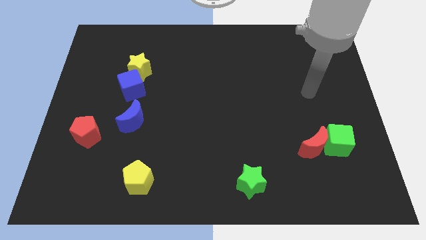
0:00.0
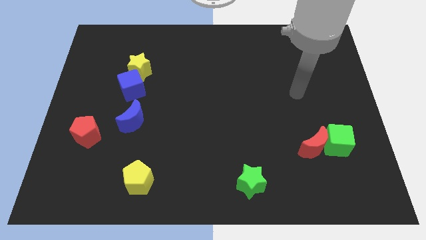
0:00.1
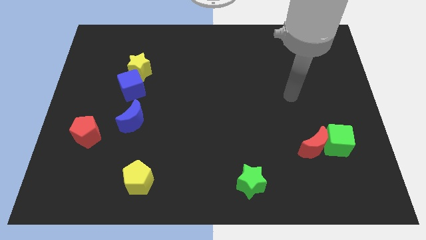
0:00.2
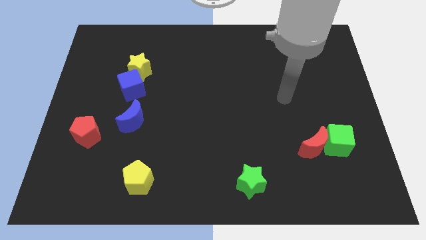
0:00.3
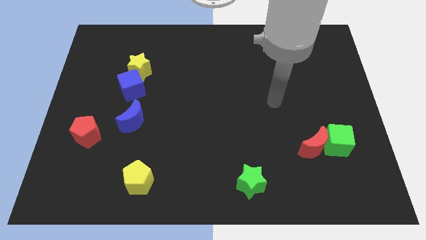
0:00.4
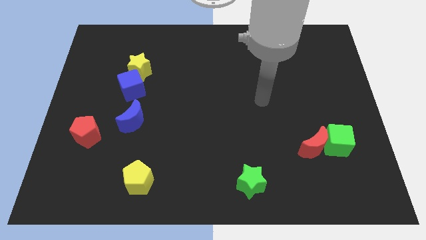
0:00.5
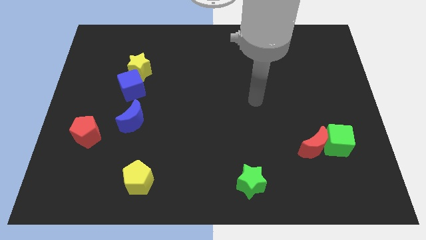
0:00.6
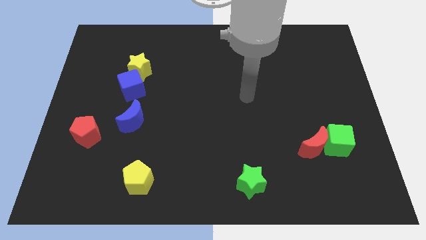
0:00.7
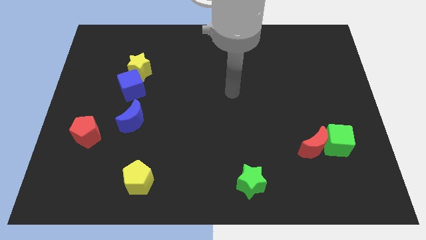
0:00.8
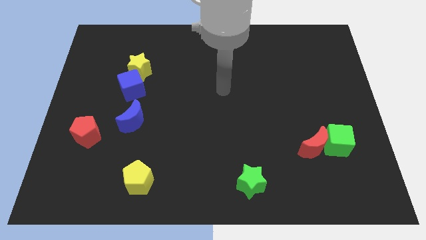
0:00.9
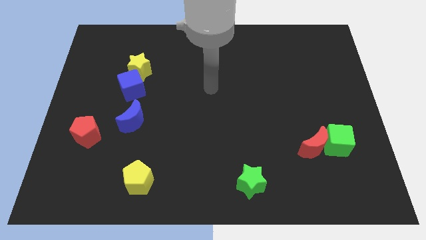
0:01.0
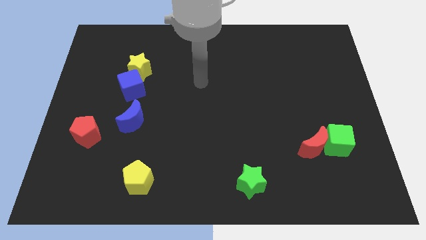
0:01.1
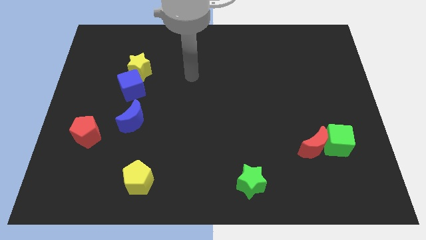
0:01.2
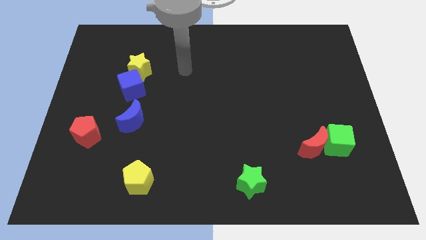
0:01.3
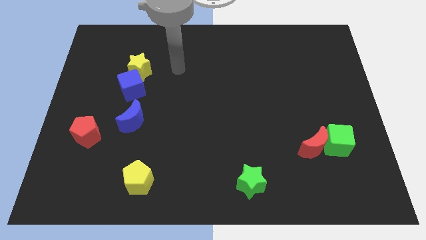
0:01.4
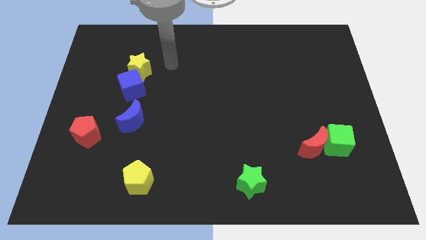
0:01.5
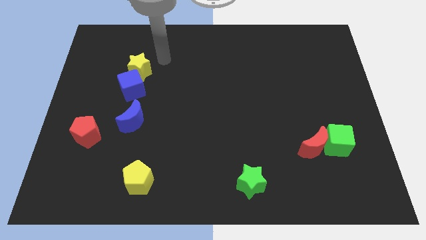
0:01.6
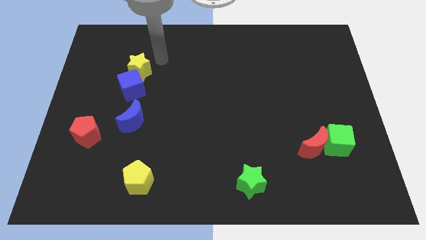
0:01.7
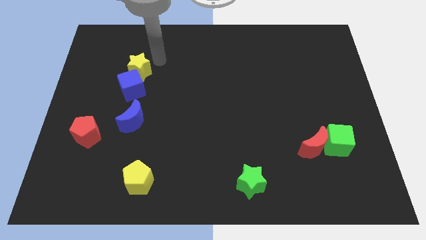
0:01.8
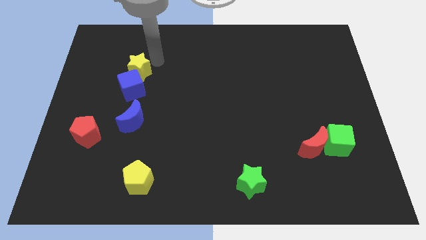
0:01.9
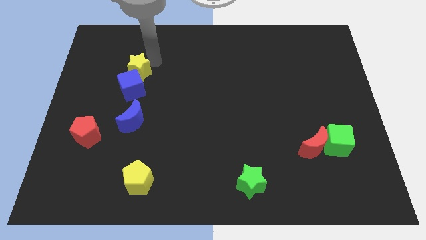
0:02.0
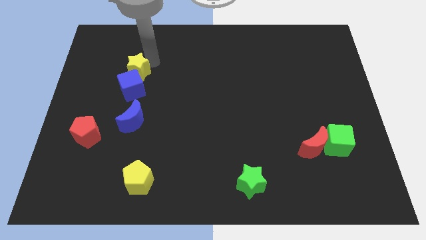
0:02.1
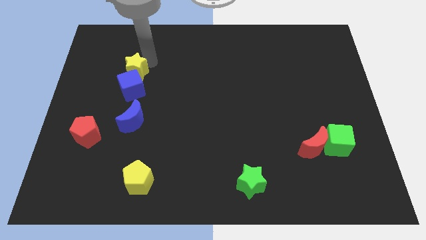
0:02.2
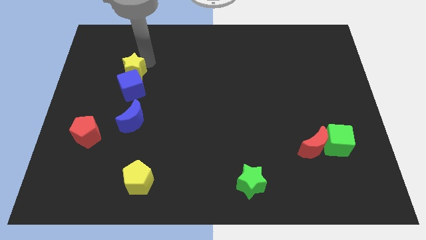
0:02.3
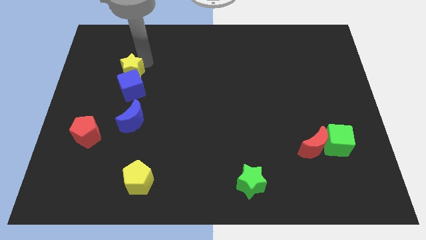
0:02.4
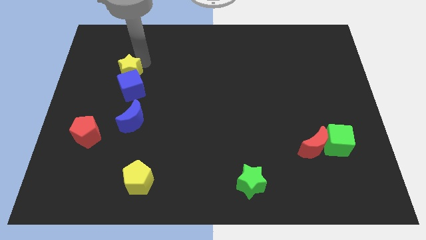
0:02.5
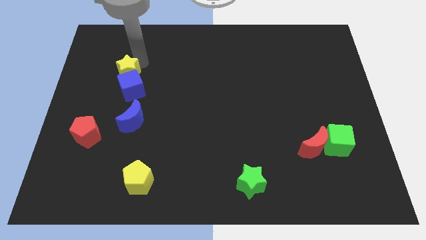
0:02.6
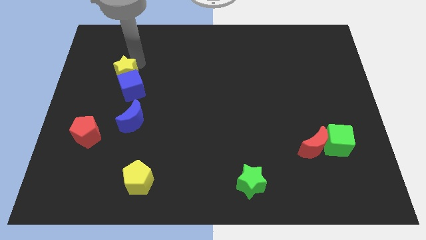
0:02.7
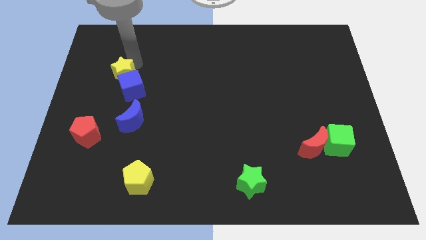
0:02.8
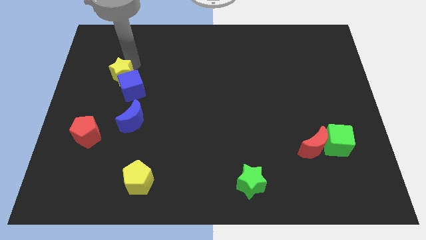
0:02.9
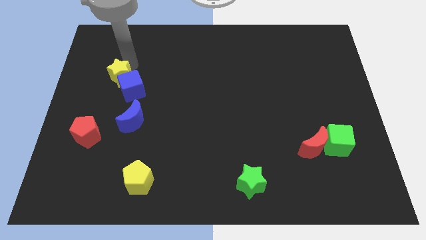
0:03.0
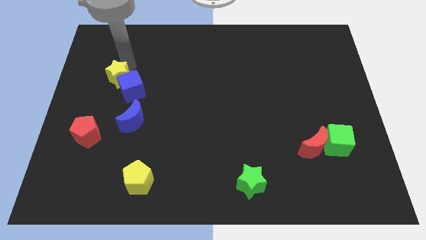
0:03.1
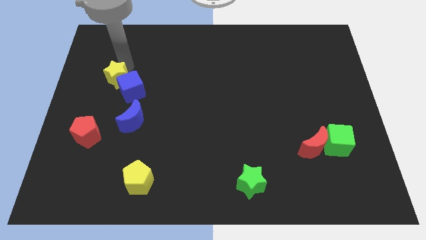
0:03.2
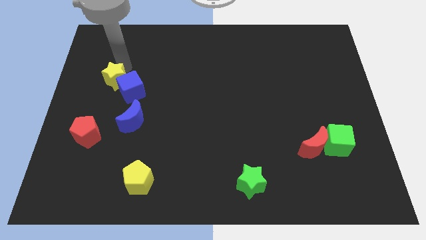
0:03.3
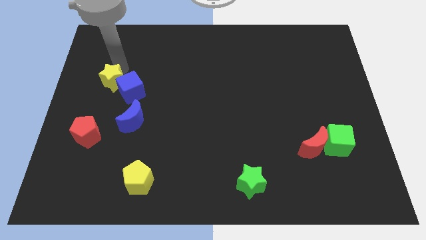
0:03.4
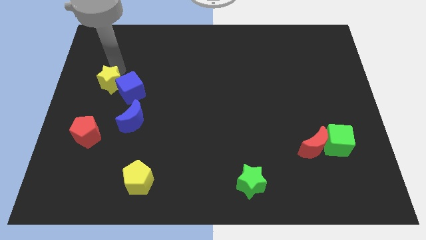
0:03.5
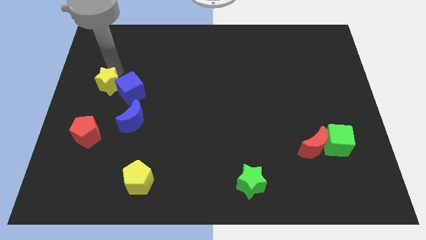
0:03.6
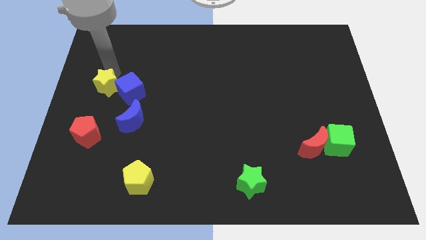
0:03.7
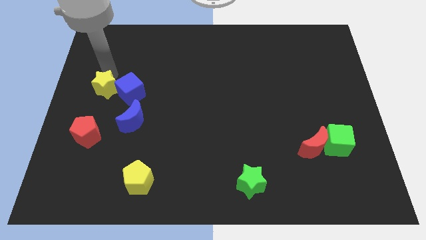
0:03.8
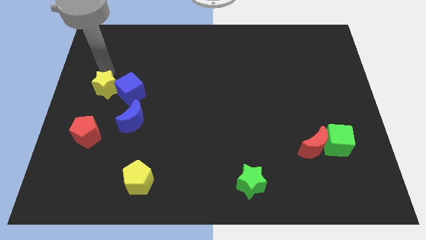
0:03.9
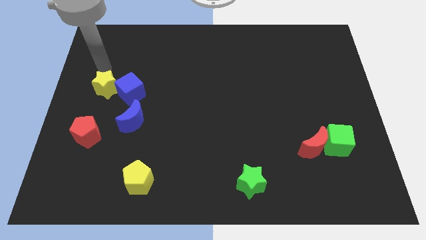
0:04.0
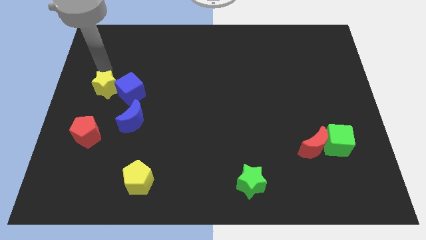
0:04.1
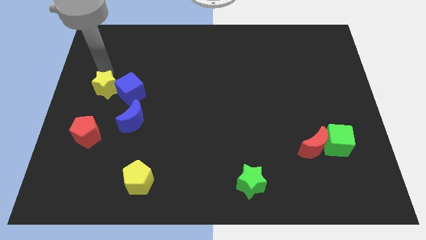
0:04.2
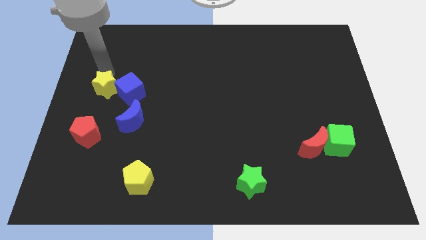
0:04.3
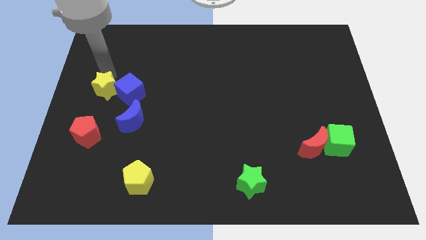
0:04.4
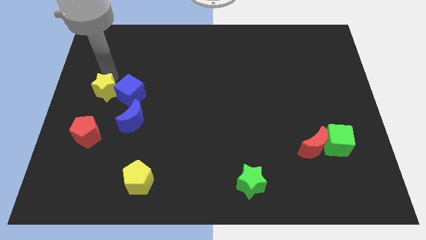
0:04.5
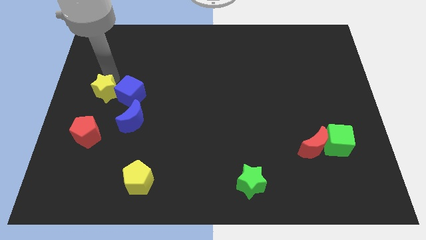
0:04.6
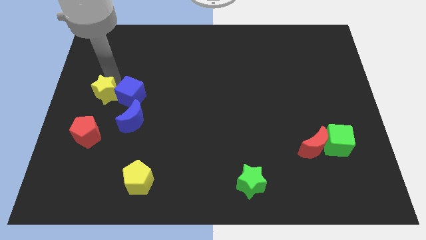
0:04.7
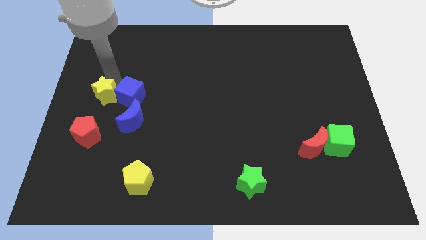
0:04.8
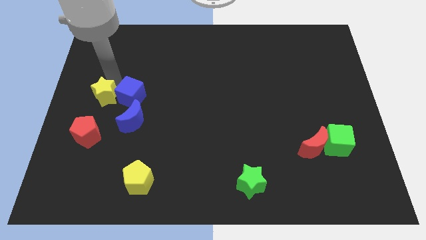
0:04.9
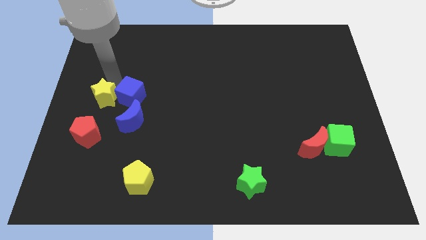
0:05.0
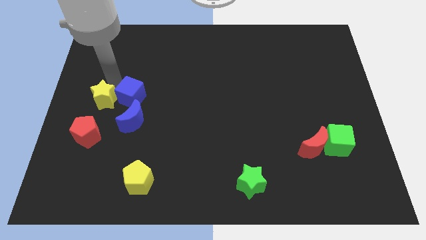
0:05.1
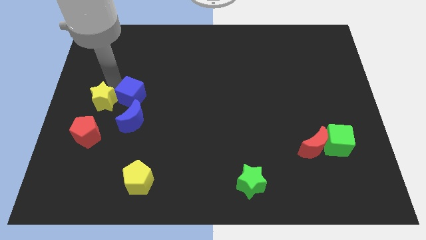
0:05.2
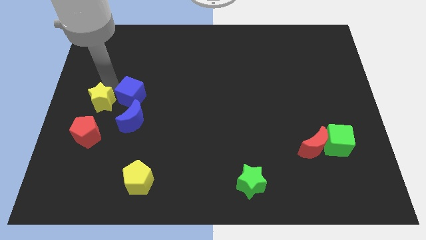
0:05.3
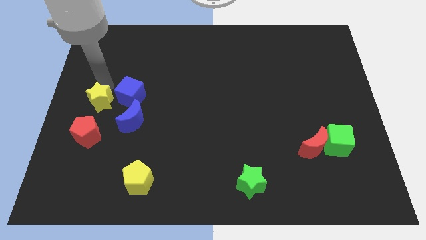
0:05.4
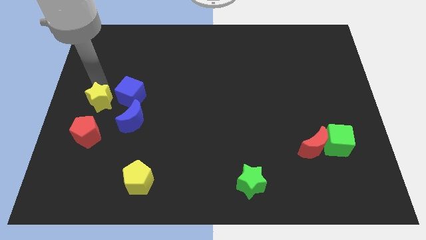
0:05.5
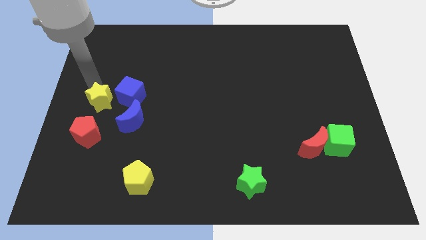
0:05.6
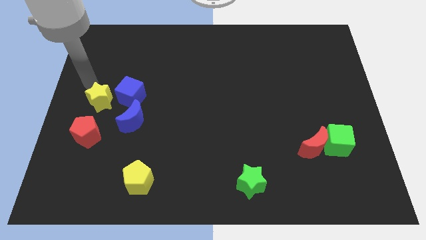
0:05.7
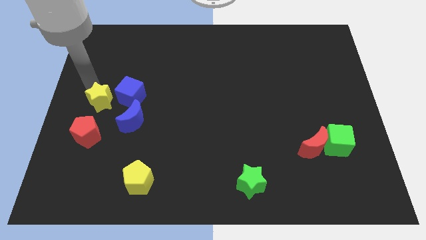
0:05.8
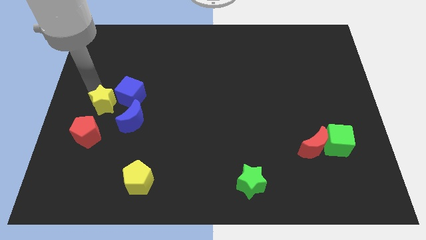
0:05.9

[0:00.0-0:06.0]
slide the yellow star to the top right side of the red pentagon

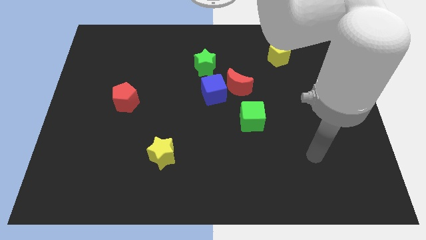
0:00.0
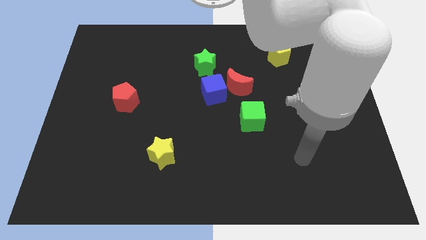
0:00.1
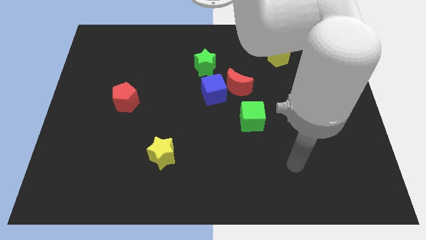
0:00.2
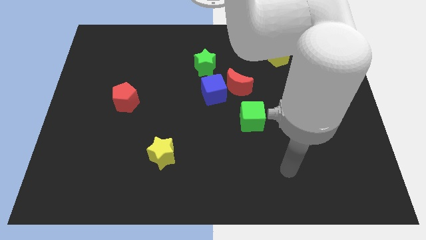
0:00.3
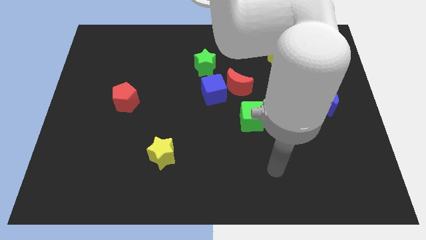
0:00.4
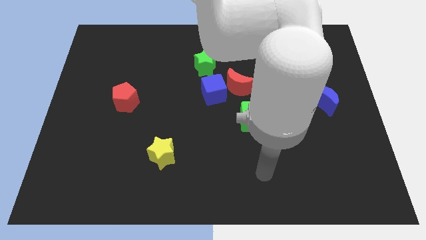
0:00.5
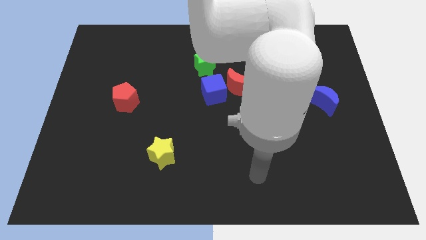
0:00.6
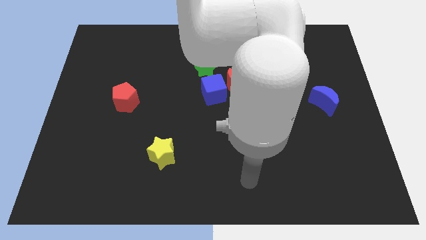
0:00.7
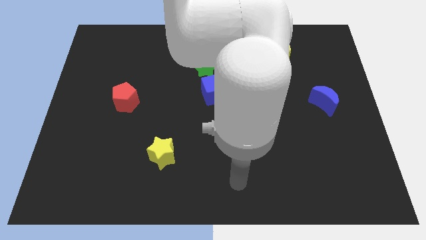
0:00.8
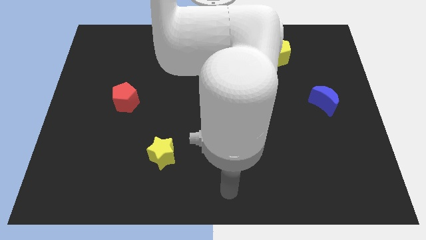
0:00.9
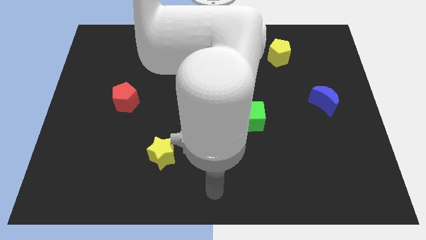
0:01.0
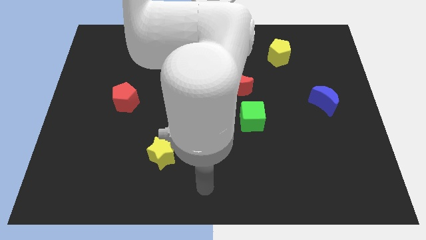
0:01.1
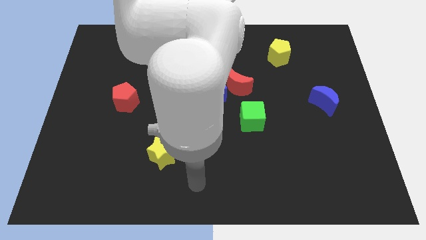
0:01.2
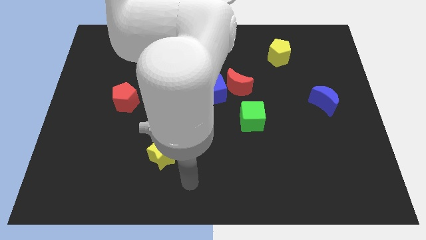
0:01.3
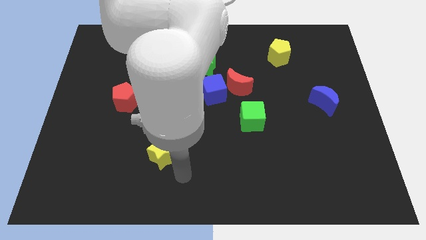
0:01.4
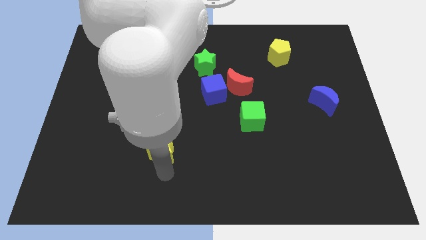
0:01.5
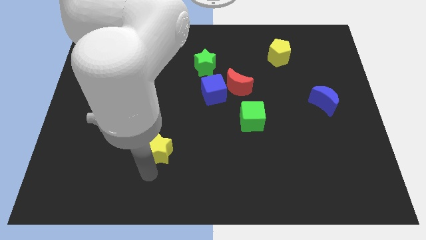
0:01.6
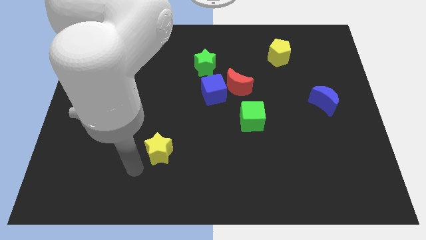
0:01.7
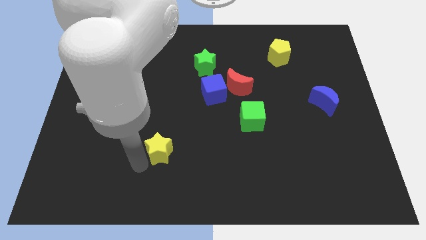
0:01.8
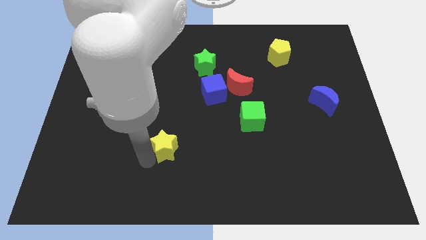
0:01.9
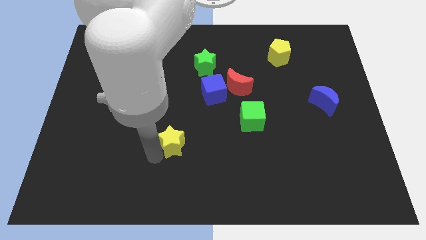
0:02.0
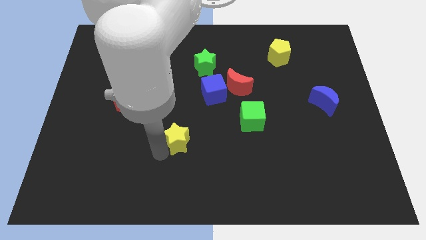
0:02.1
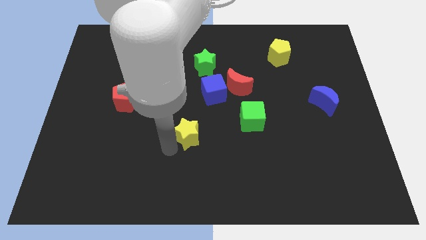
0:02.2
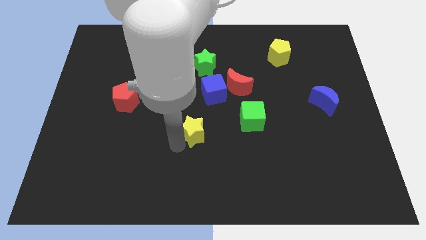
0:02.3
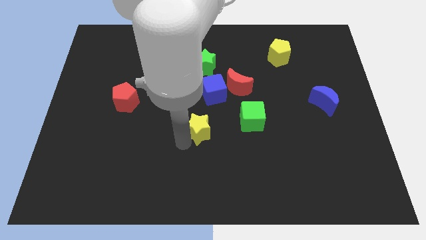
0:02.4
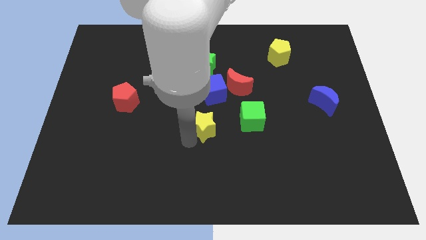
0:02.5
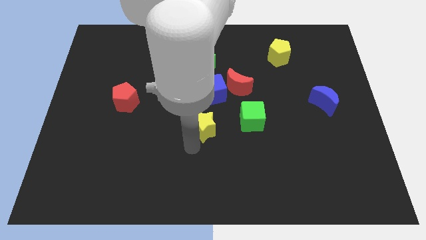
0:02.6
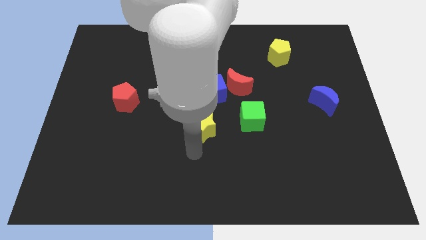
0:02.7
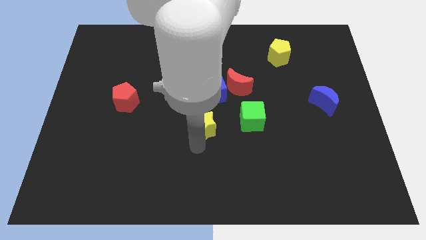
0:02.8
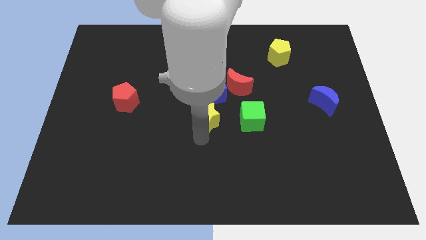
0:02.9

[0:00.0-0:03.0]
push the yellow star to the bottom left of the red moon
